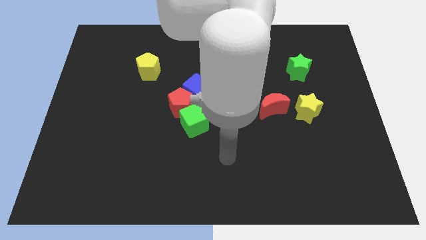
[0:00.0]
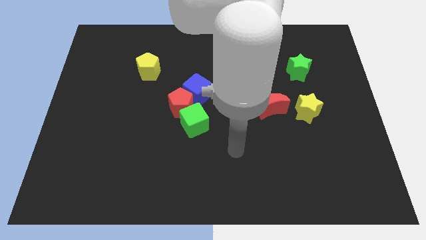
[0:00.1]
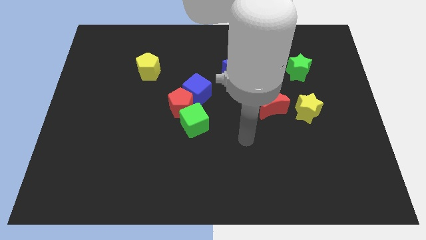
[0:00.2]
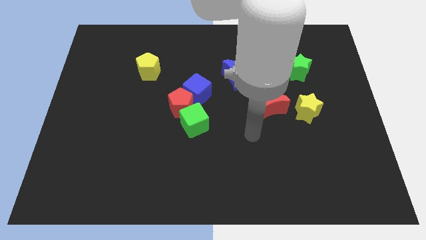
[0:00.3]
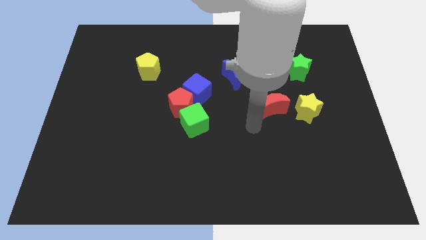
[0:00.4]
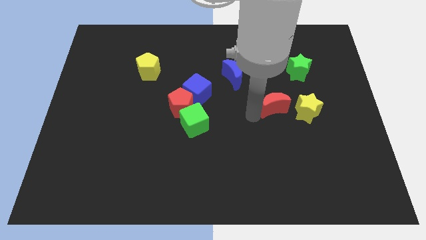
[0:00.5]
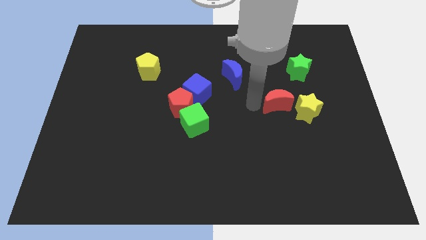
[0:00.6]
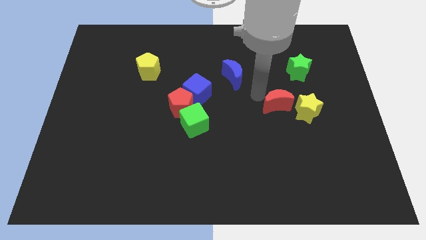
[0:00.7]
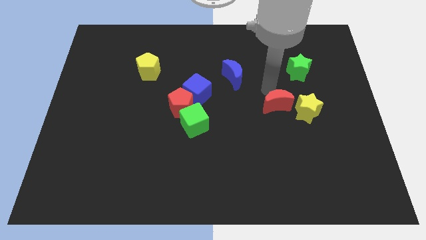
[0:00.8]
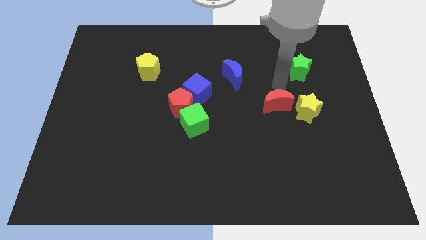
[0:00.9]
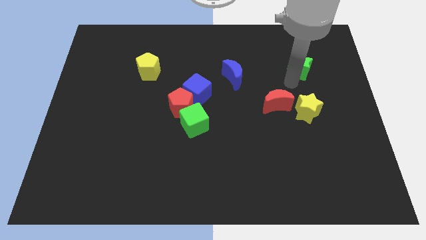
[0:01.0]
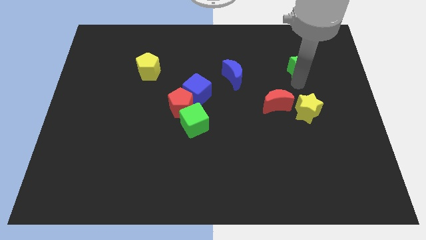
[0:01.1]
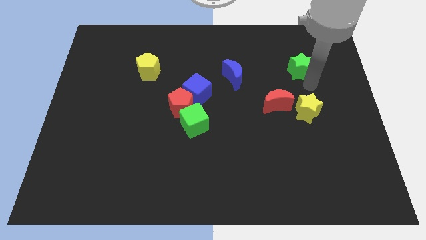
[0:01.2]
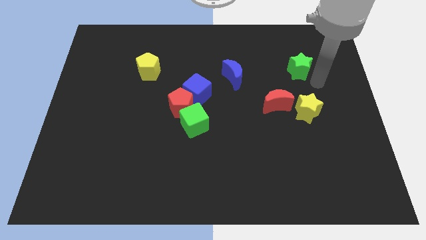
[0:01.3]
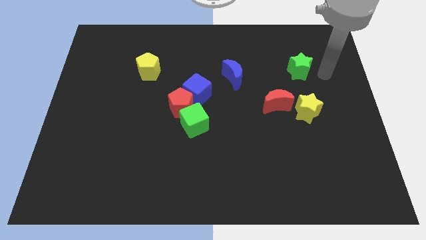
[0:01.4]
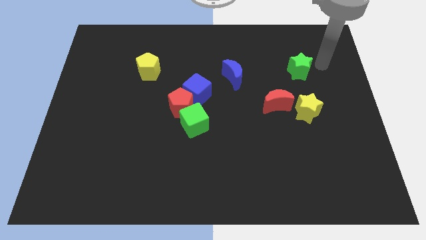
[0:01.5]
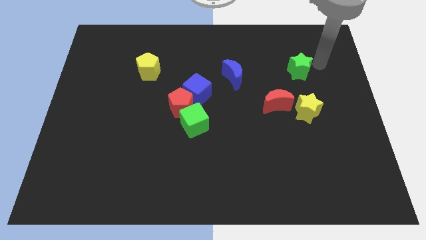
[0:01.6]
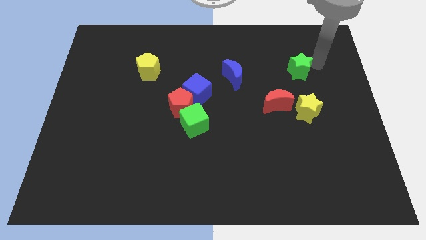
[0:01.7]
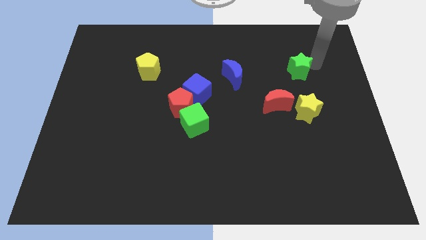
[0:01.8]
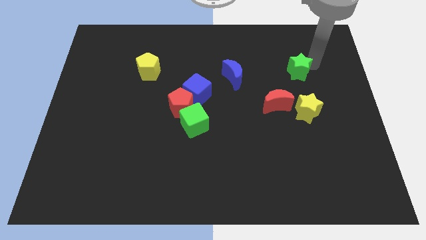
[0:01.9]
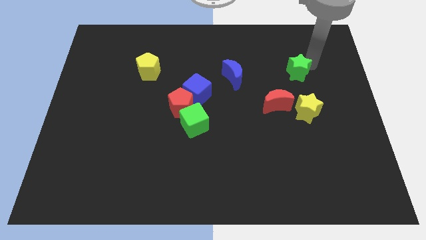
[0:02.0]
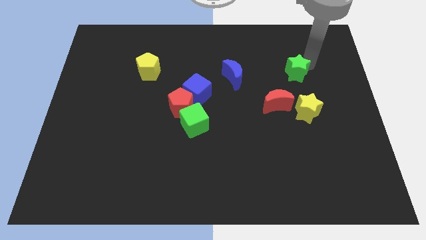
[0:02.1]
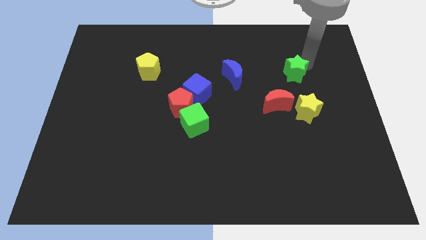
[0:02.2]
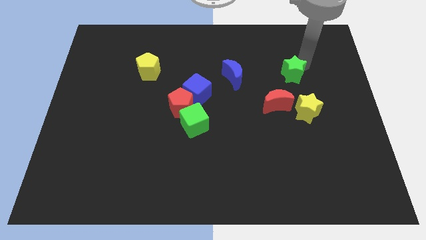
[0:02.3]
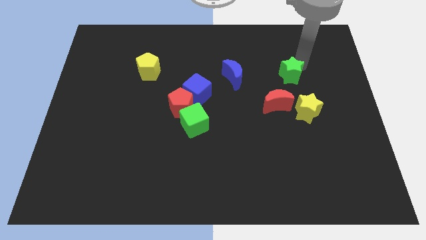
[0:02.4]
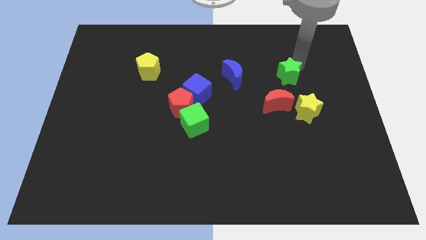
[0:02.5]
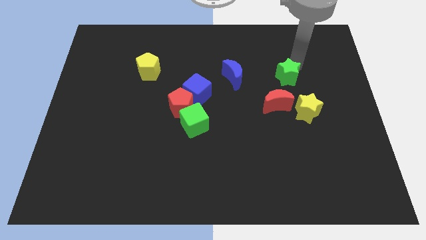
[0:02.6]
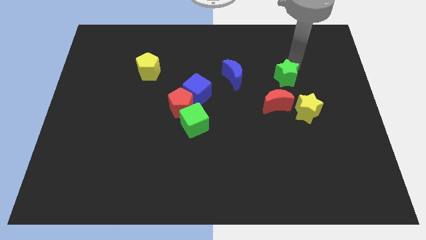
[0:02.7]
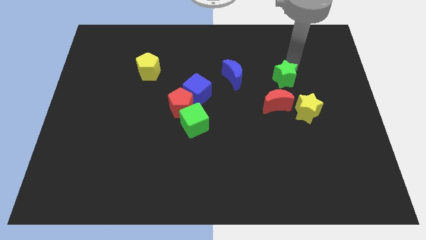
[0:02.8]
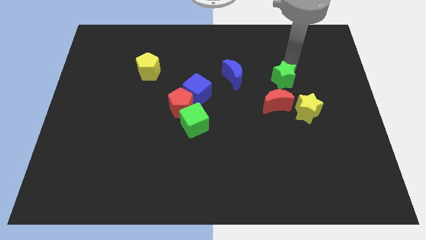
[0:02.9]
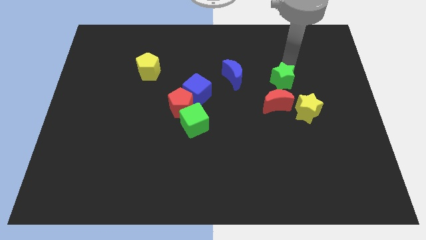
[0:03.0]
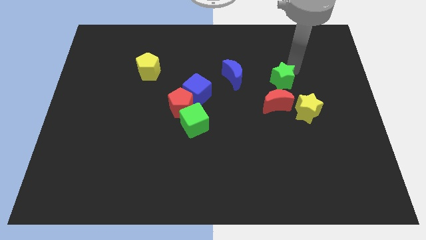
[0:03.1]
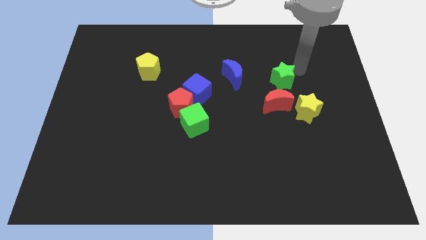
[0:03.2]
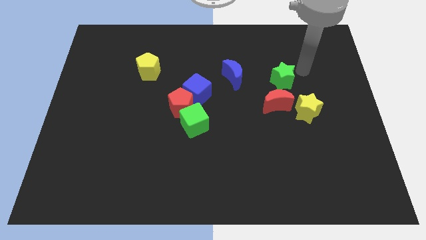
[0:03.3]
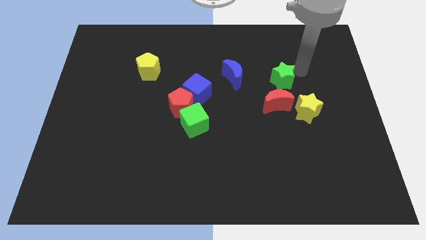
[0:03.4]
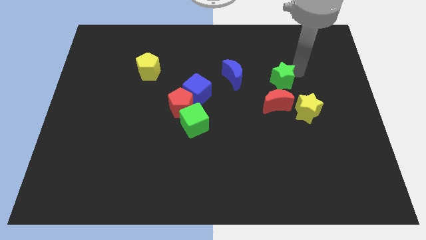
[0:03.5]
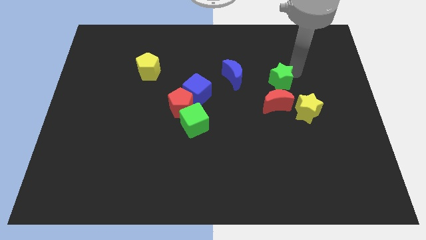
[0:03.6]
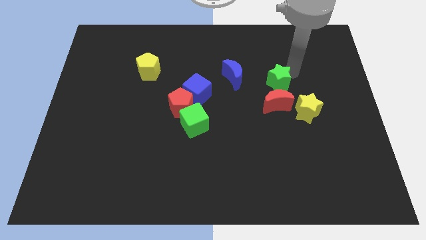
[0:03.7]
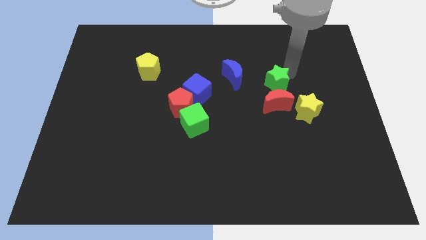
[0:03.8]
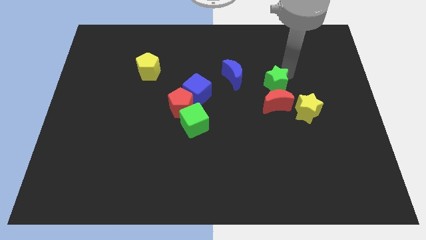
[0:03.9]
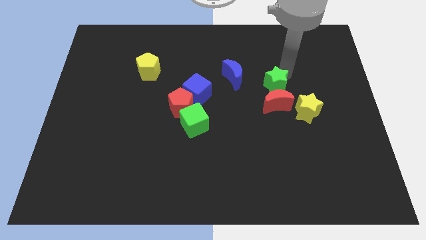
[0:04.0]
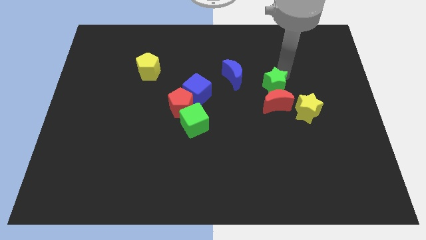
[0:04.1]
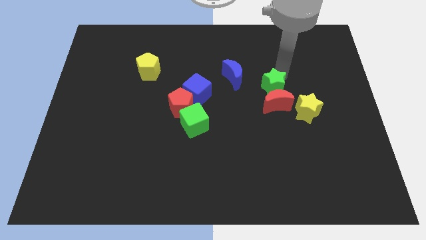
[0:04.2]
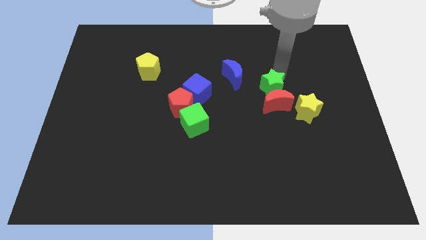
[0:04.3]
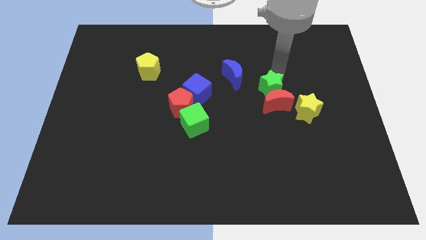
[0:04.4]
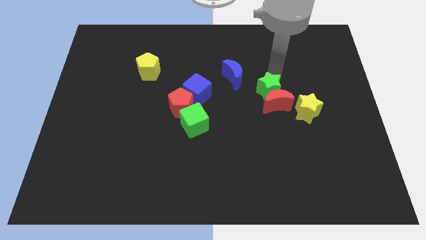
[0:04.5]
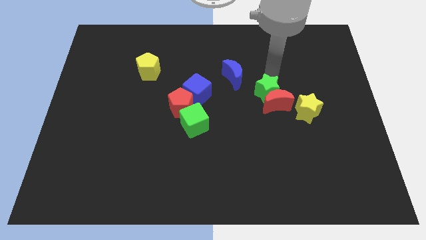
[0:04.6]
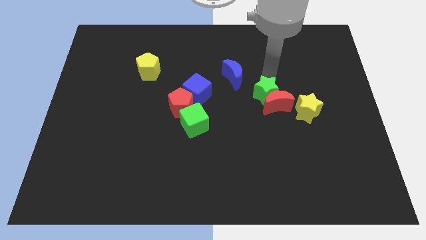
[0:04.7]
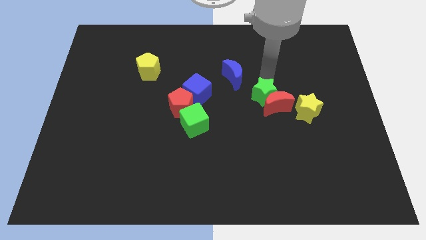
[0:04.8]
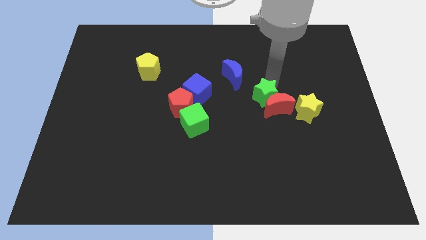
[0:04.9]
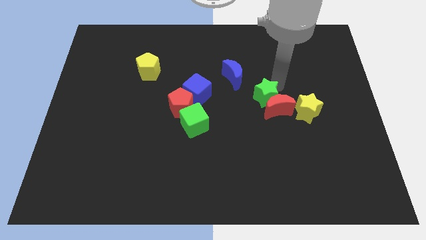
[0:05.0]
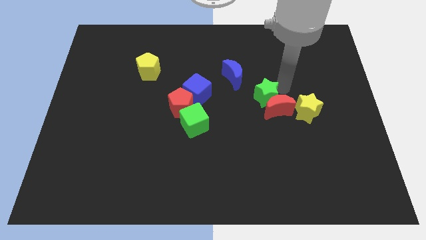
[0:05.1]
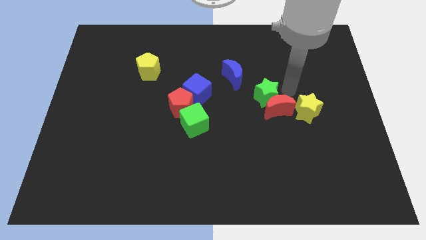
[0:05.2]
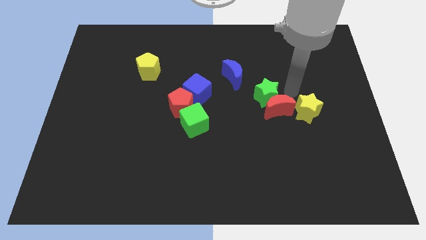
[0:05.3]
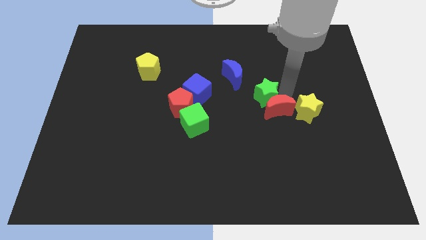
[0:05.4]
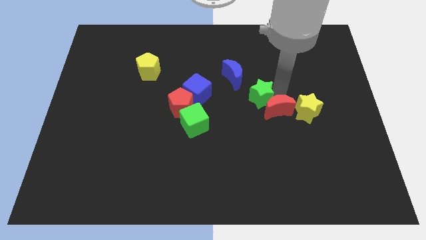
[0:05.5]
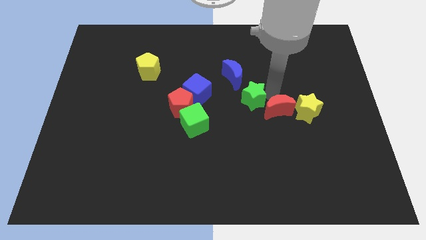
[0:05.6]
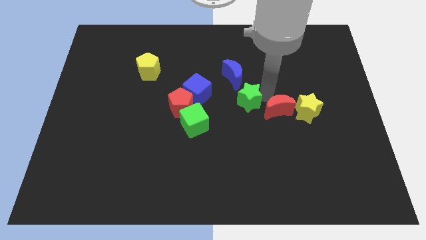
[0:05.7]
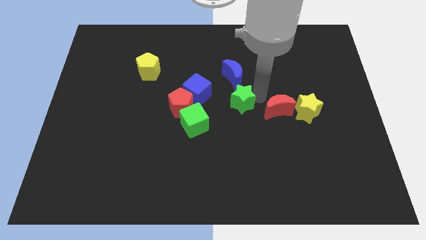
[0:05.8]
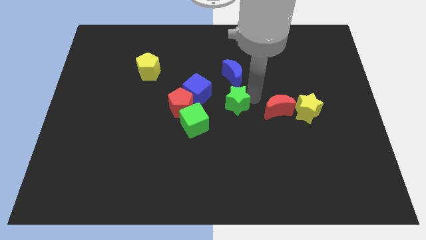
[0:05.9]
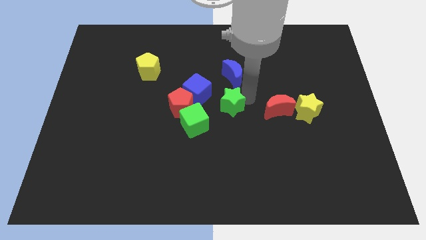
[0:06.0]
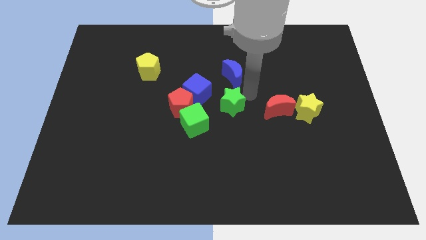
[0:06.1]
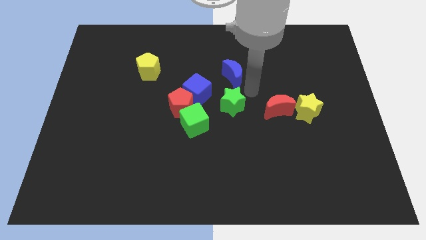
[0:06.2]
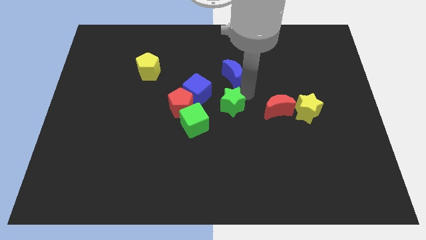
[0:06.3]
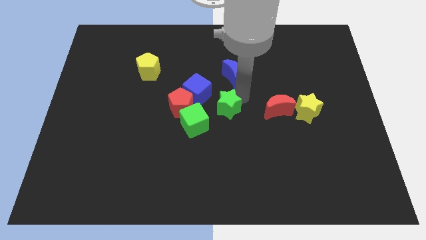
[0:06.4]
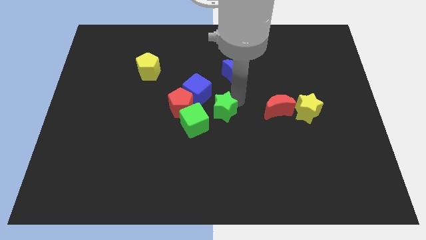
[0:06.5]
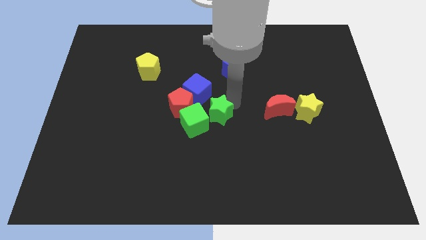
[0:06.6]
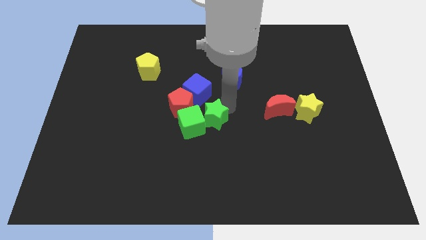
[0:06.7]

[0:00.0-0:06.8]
put the green star close to the green cube
